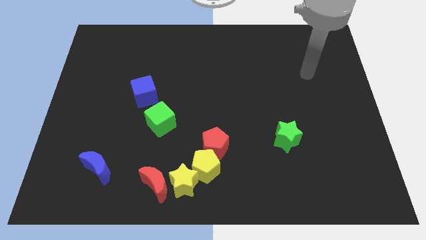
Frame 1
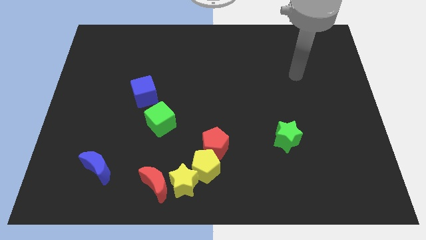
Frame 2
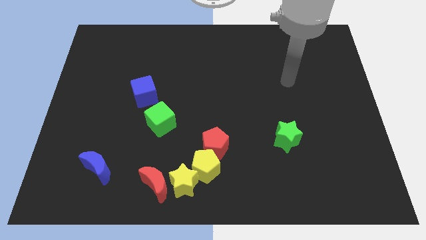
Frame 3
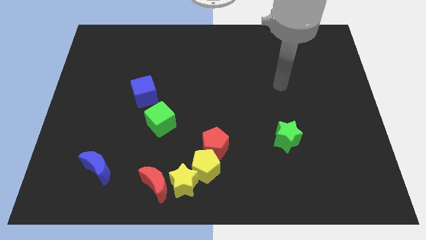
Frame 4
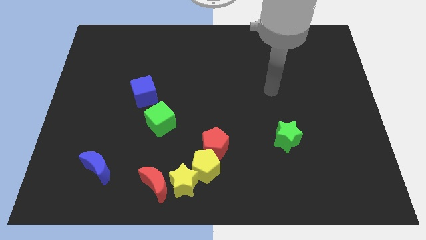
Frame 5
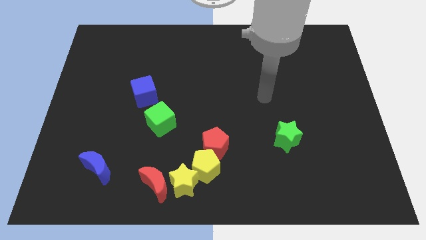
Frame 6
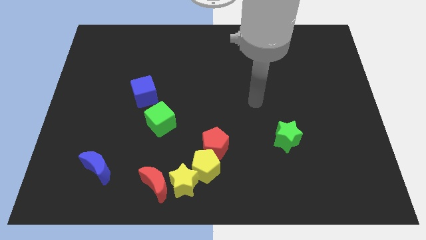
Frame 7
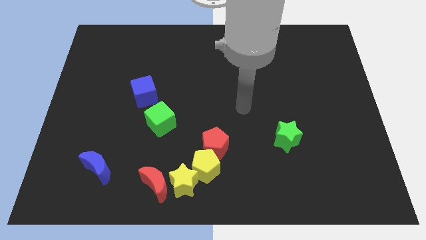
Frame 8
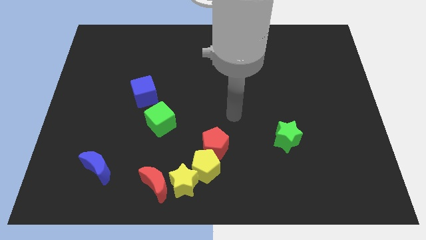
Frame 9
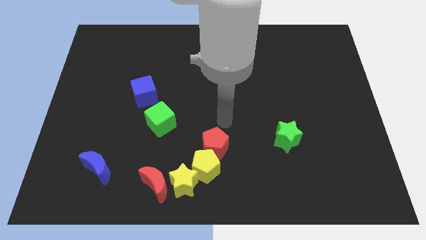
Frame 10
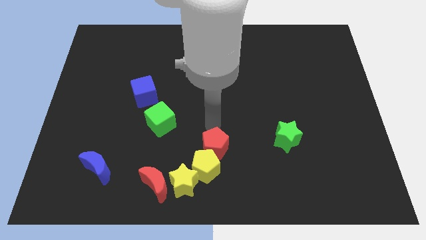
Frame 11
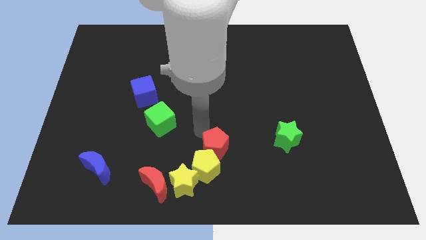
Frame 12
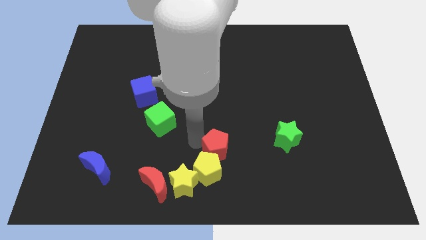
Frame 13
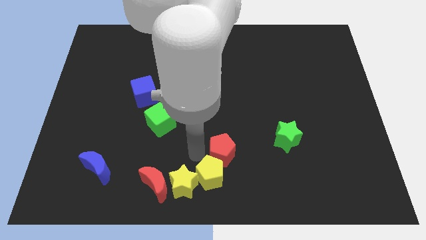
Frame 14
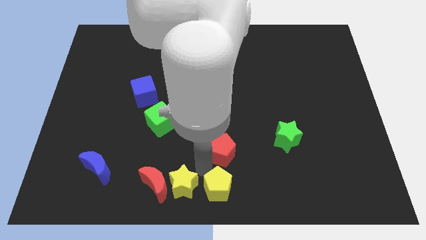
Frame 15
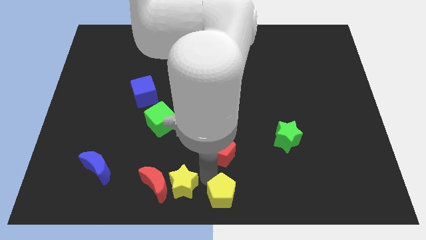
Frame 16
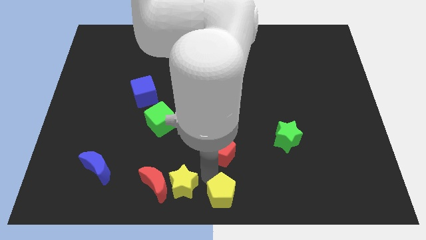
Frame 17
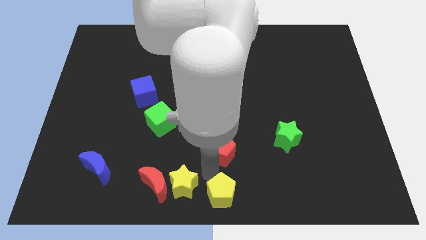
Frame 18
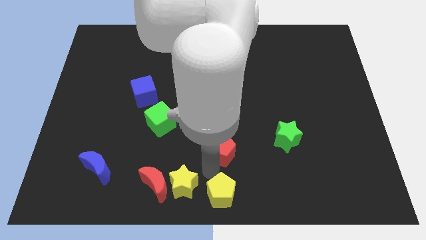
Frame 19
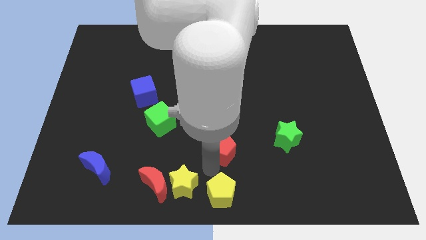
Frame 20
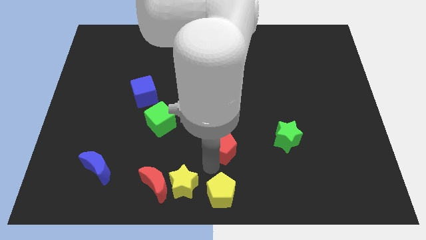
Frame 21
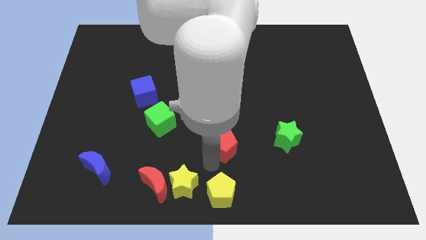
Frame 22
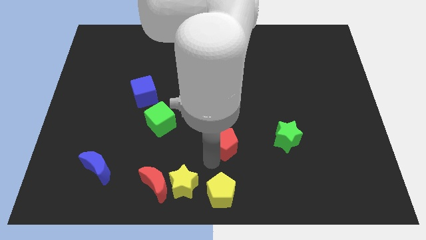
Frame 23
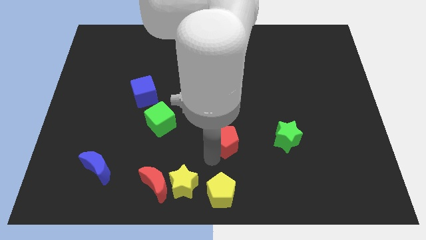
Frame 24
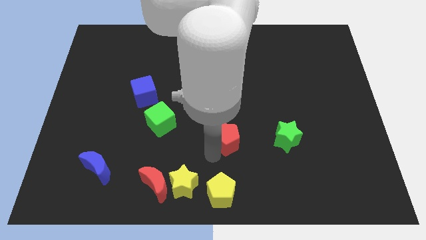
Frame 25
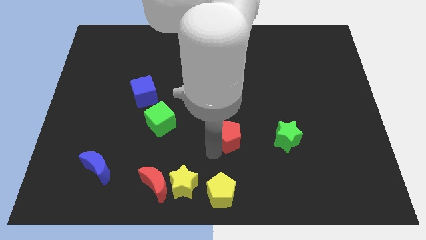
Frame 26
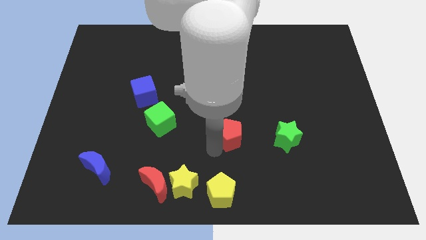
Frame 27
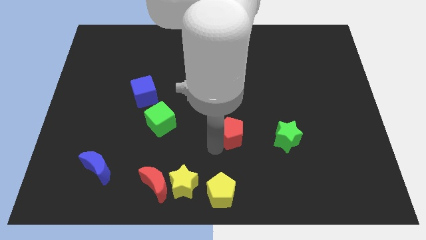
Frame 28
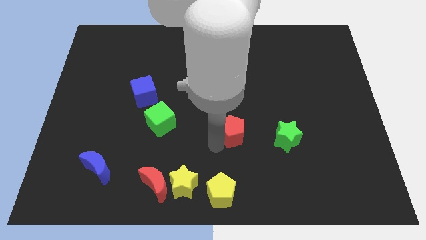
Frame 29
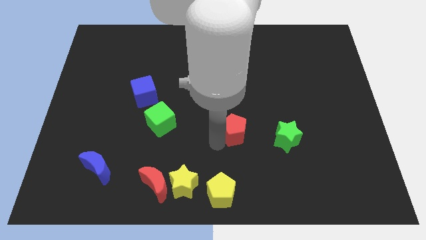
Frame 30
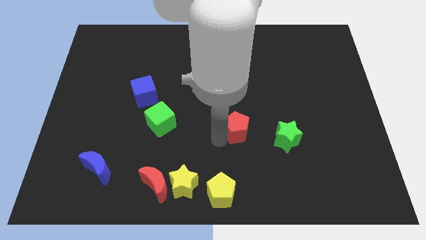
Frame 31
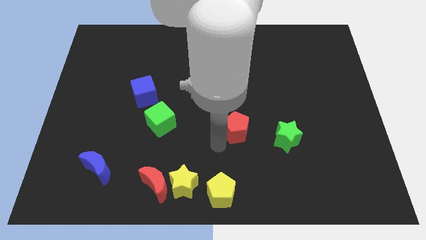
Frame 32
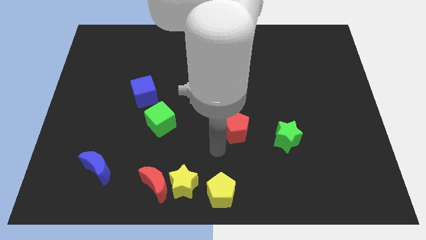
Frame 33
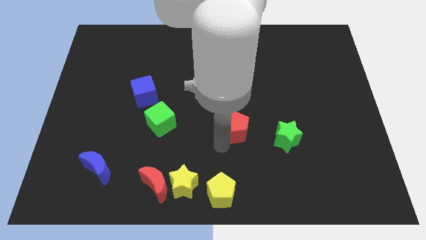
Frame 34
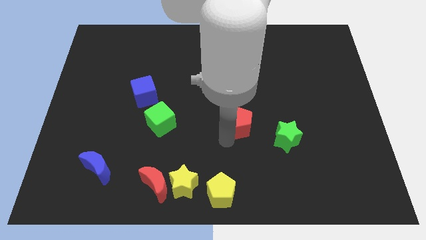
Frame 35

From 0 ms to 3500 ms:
push the red pentagon diagonally up and to the right a little

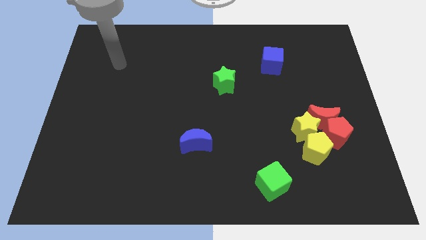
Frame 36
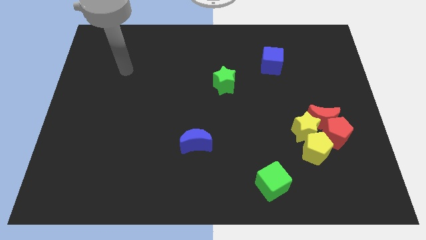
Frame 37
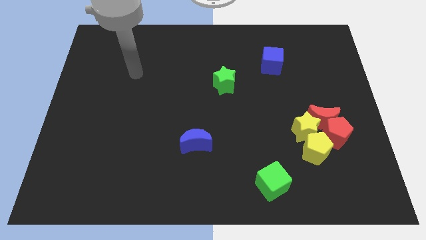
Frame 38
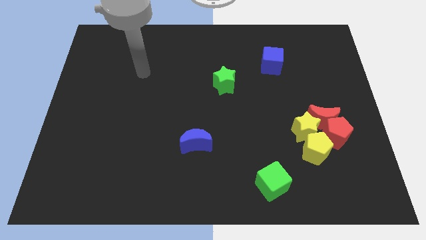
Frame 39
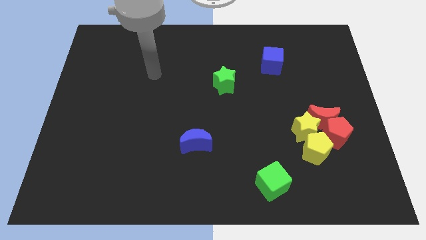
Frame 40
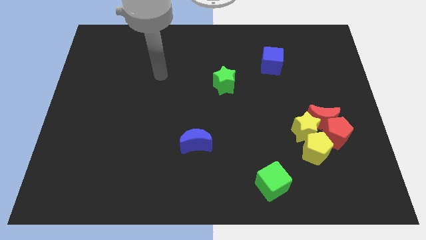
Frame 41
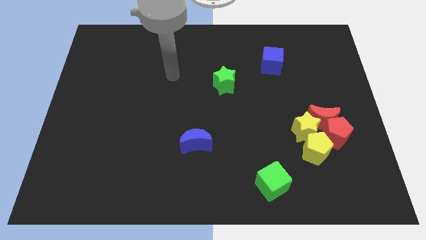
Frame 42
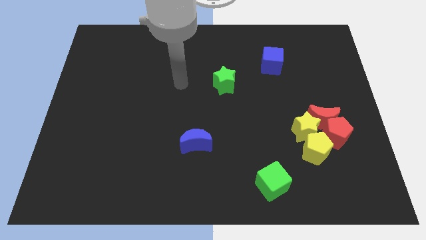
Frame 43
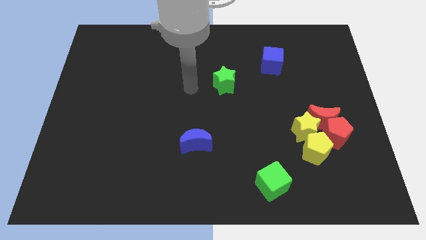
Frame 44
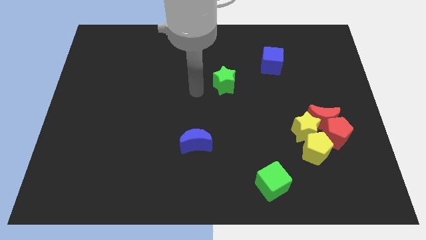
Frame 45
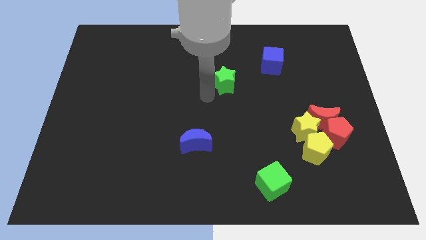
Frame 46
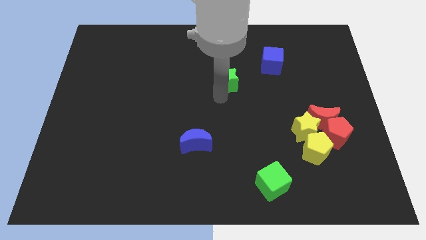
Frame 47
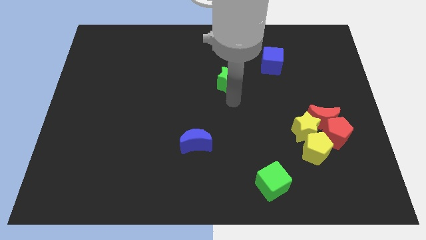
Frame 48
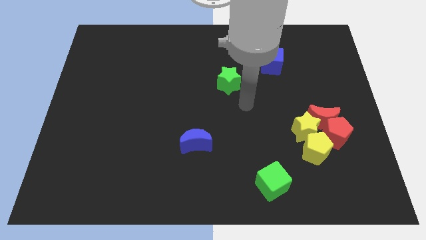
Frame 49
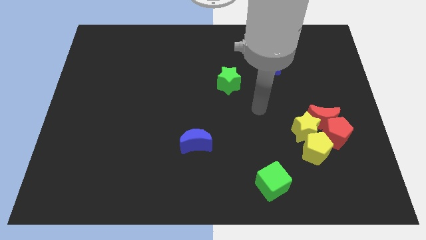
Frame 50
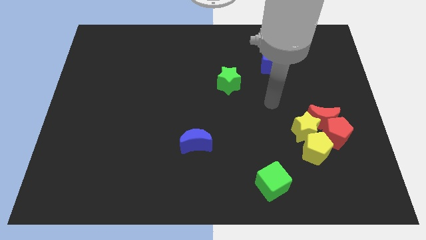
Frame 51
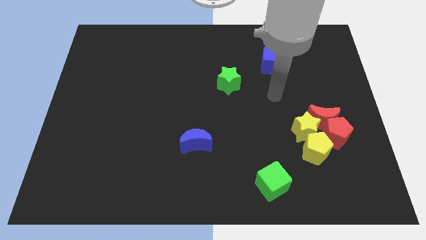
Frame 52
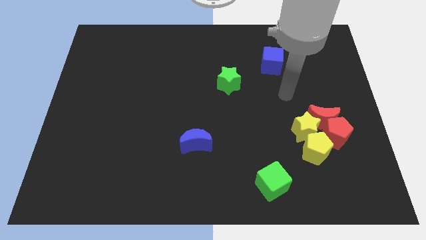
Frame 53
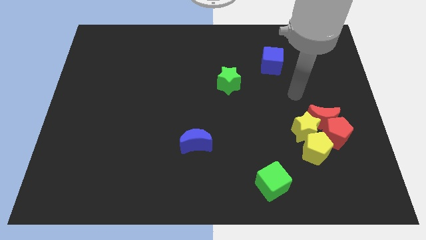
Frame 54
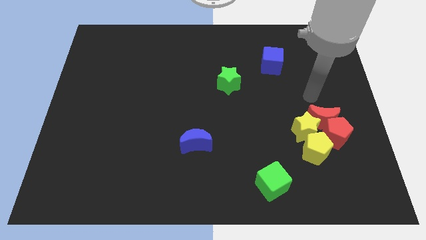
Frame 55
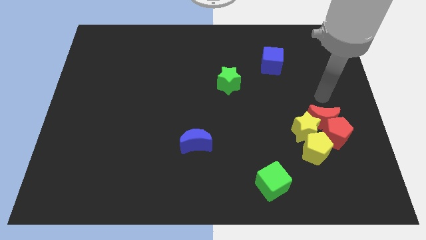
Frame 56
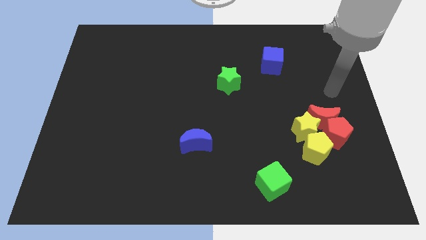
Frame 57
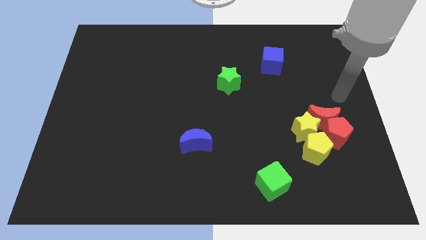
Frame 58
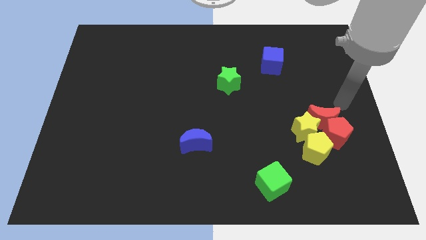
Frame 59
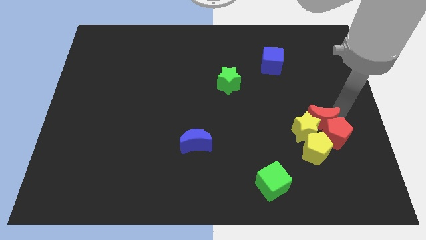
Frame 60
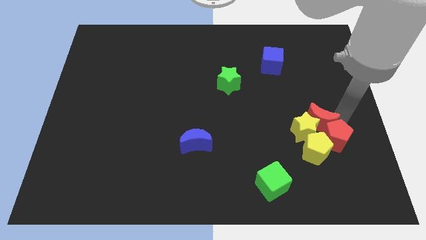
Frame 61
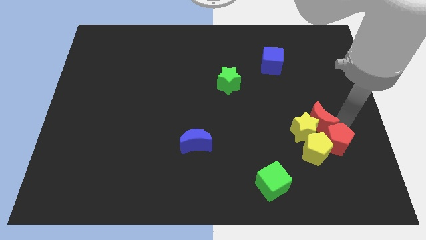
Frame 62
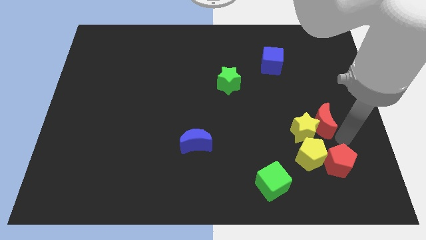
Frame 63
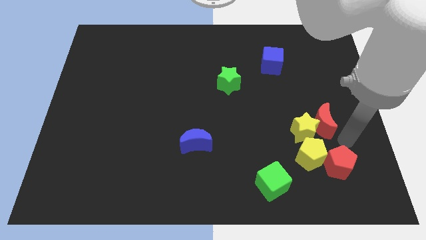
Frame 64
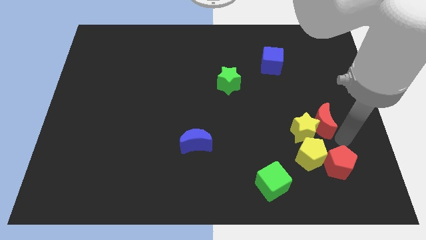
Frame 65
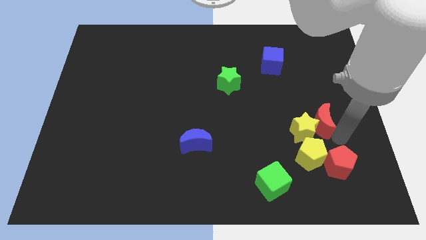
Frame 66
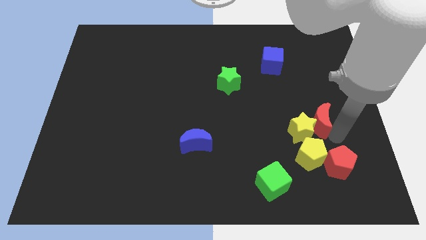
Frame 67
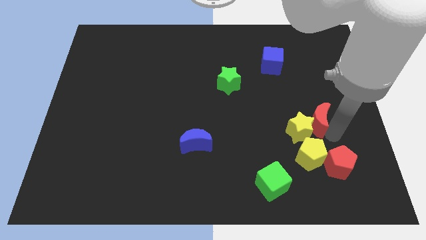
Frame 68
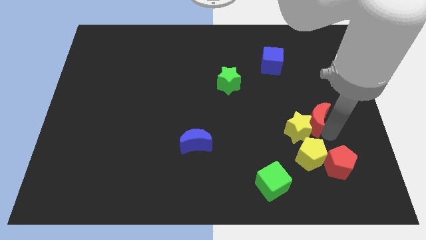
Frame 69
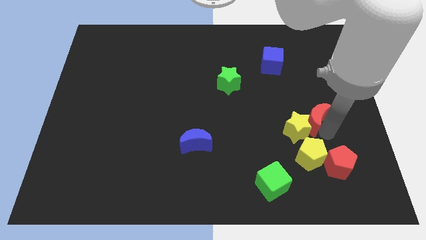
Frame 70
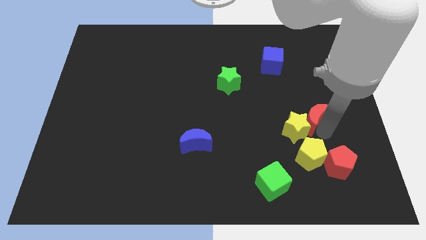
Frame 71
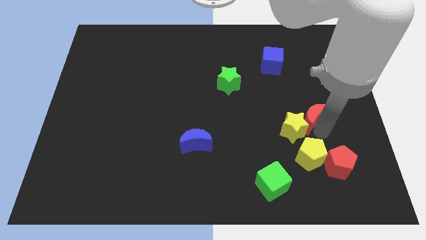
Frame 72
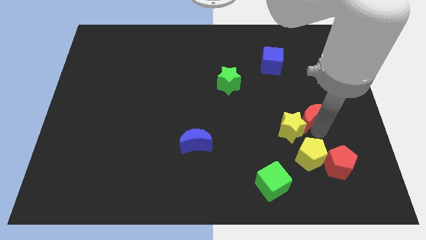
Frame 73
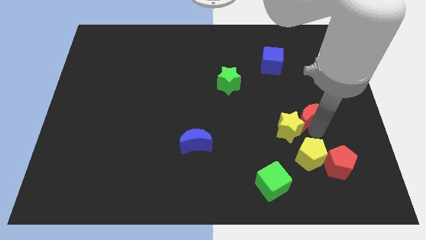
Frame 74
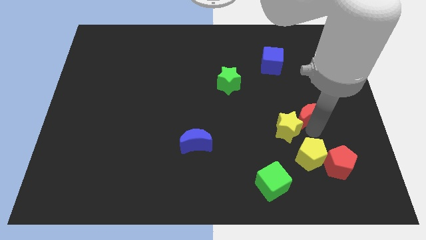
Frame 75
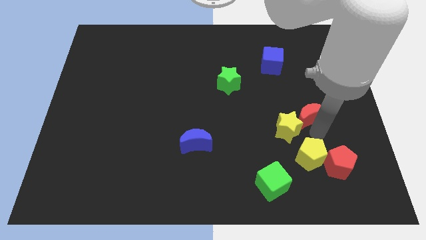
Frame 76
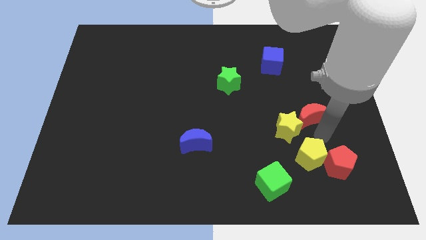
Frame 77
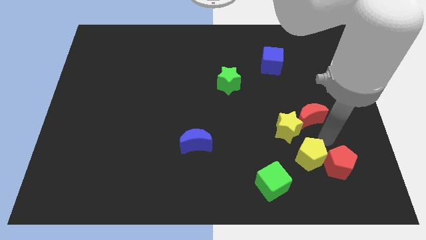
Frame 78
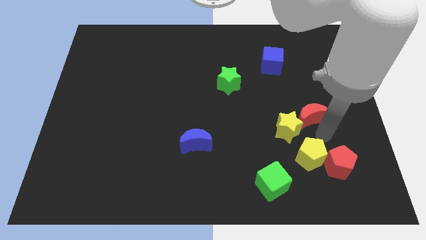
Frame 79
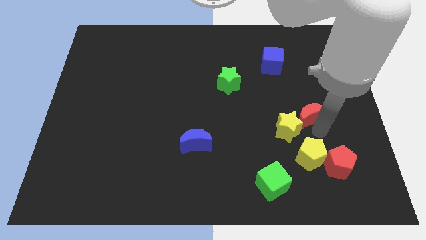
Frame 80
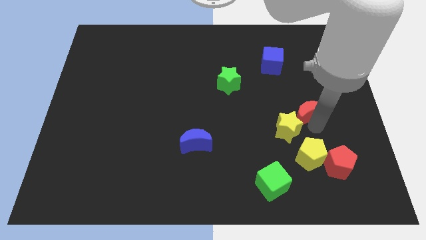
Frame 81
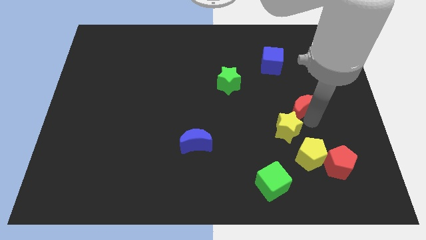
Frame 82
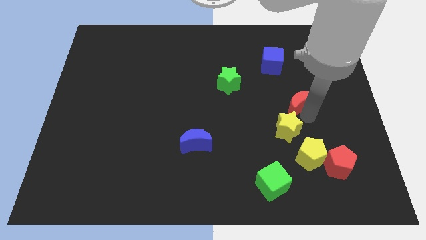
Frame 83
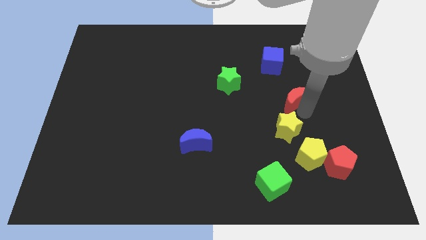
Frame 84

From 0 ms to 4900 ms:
slide the red moon a little bit diagonally up and left
